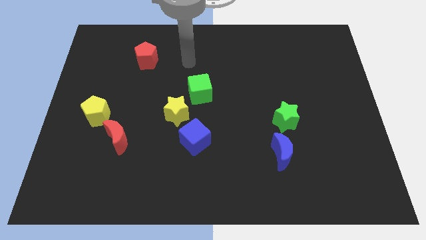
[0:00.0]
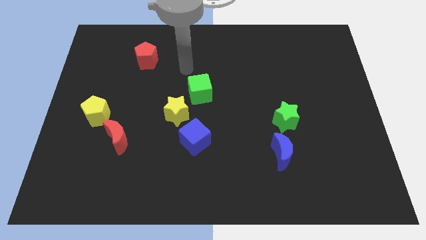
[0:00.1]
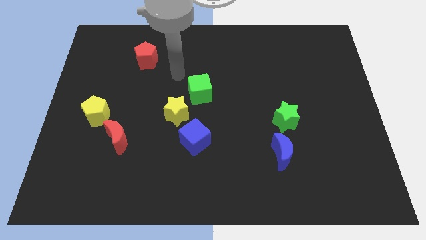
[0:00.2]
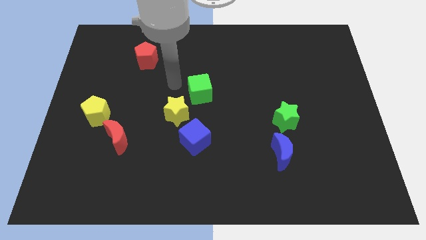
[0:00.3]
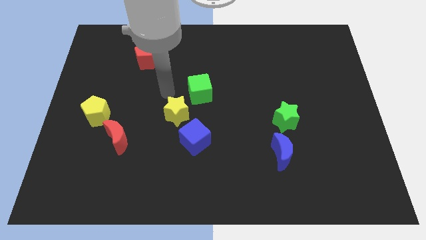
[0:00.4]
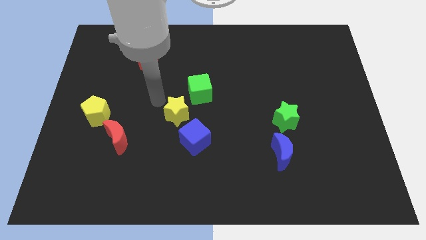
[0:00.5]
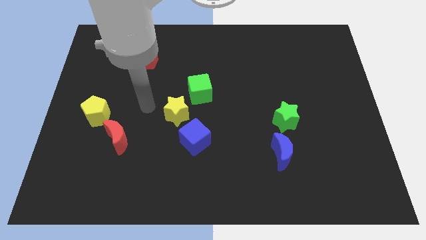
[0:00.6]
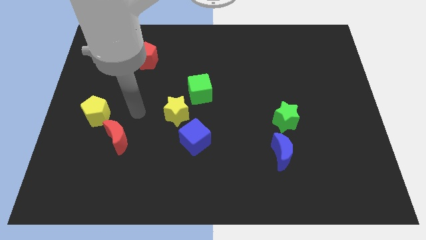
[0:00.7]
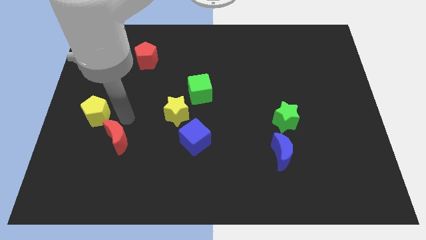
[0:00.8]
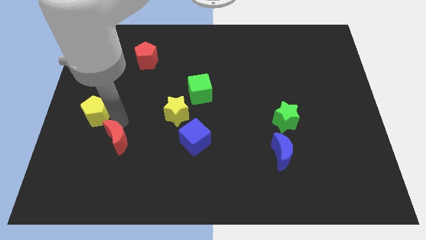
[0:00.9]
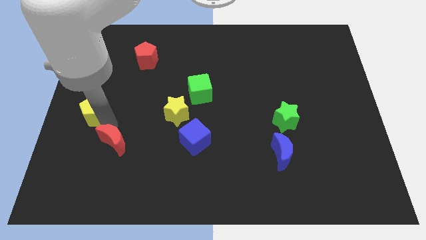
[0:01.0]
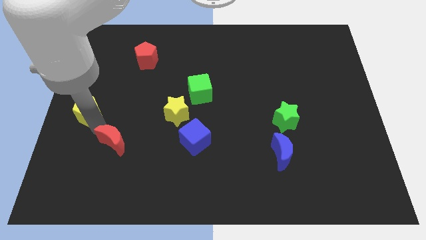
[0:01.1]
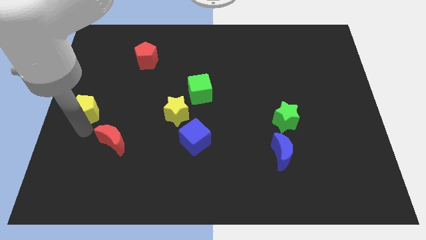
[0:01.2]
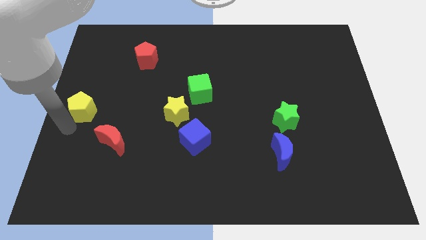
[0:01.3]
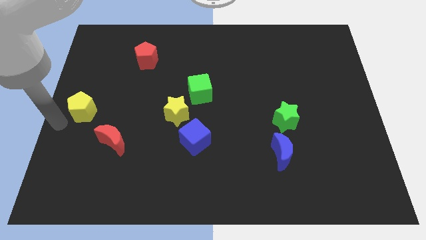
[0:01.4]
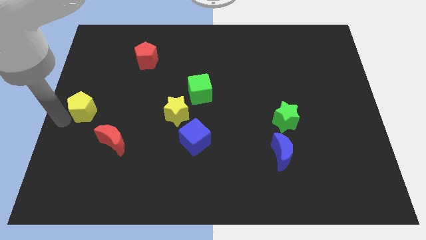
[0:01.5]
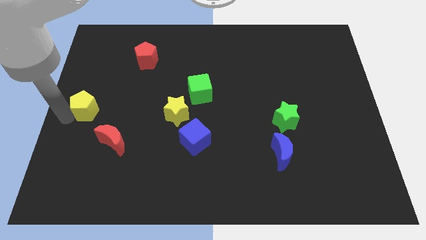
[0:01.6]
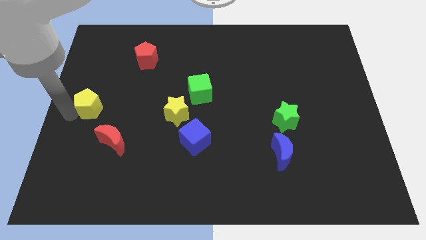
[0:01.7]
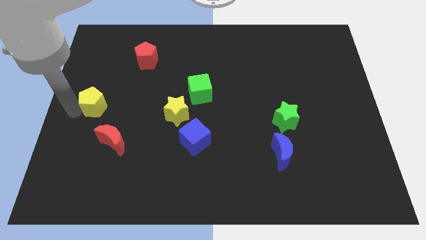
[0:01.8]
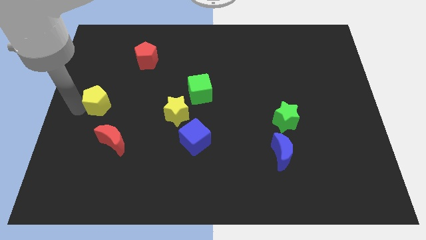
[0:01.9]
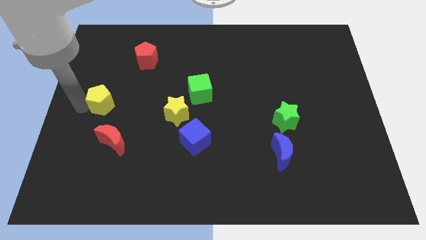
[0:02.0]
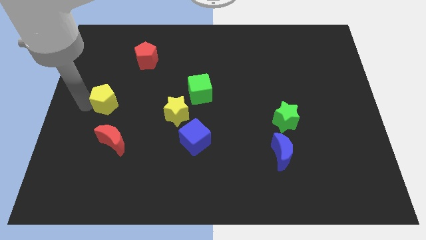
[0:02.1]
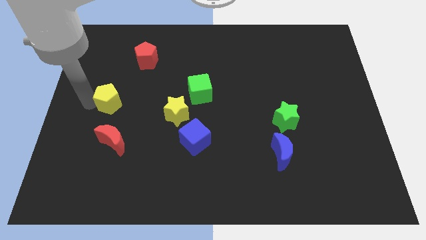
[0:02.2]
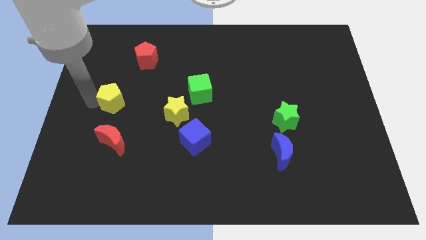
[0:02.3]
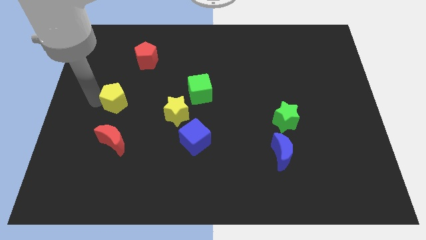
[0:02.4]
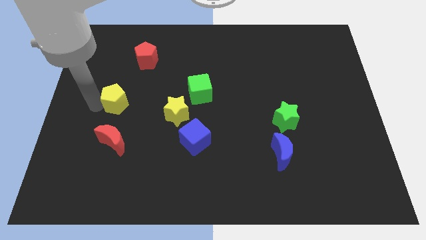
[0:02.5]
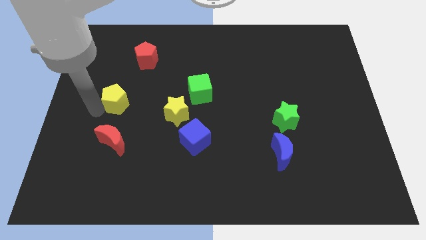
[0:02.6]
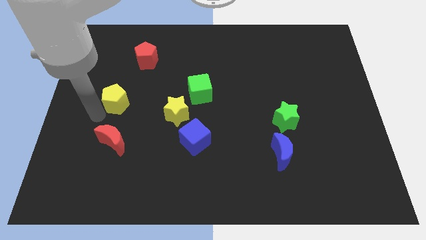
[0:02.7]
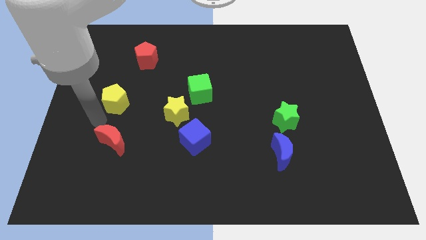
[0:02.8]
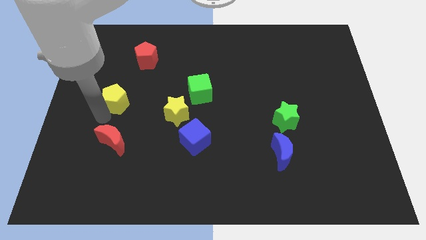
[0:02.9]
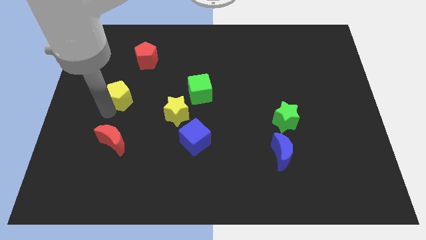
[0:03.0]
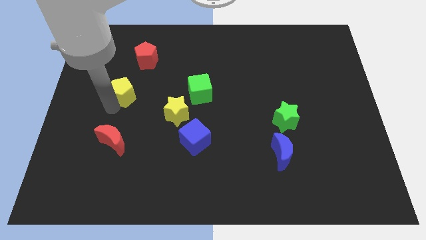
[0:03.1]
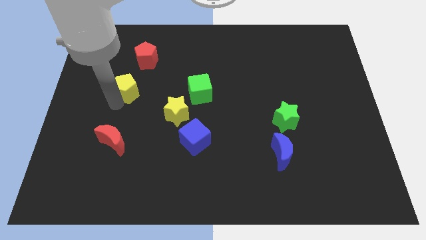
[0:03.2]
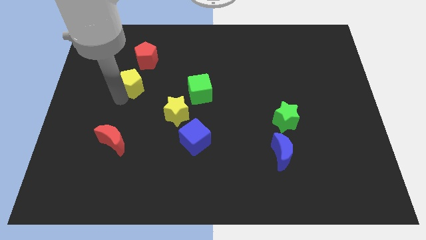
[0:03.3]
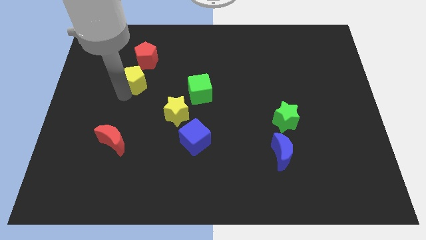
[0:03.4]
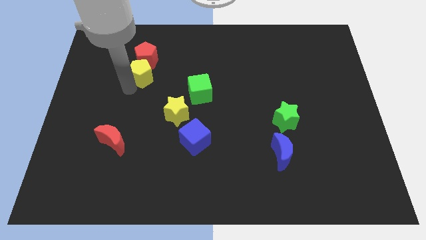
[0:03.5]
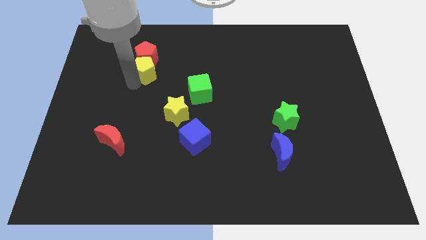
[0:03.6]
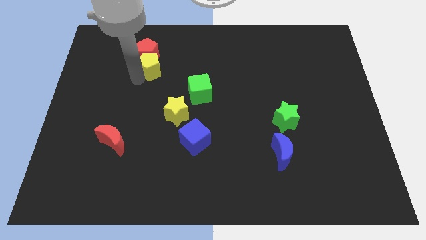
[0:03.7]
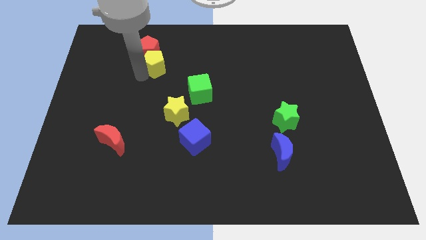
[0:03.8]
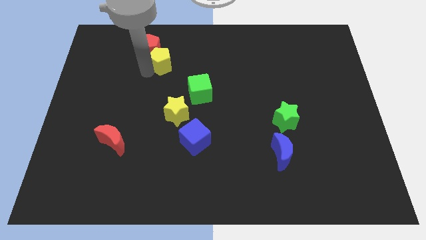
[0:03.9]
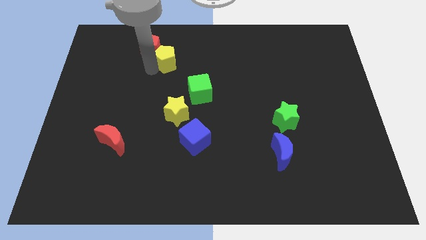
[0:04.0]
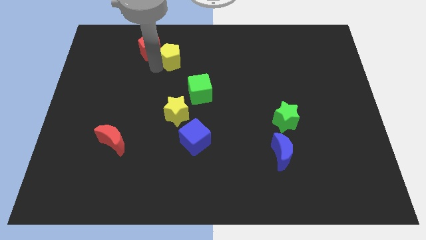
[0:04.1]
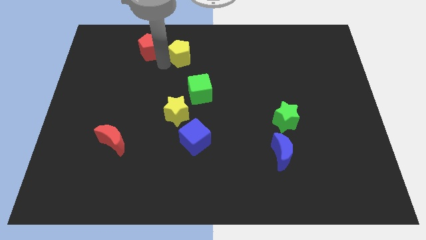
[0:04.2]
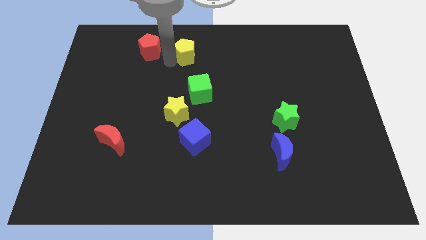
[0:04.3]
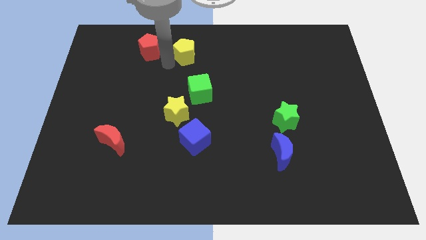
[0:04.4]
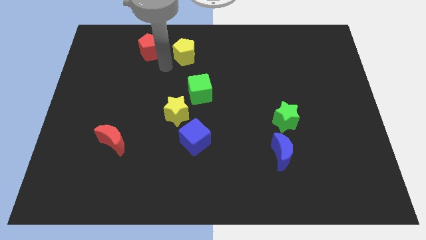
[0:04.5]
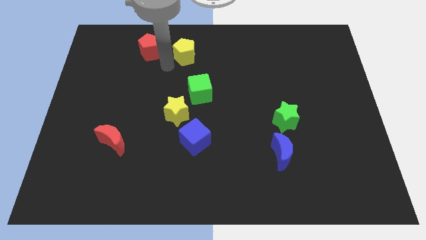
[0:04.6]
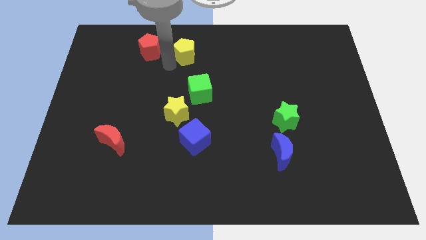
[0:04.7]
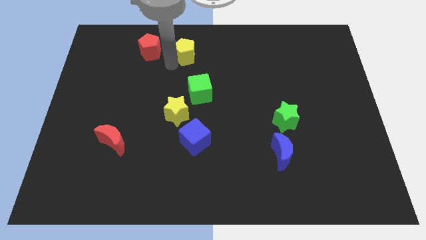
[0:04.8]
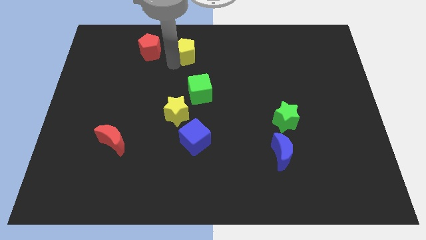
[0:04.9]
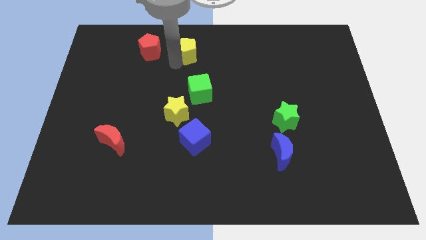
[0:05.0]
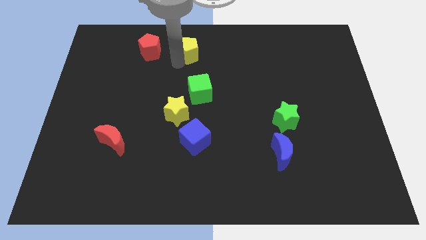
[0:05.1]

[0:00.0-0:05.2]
put the yellow pentagon to the towards your base
